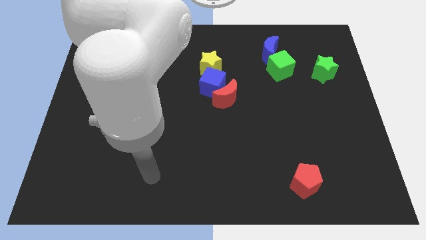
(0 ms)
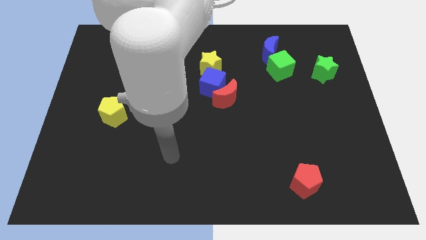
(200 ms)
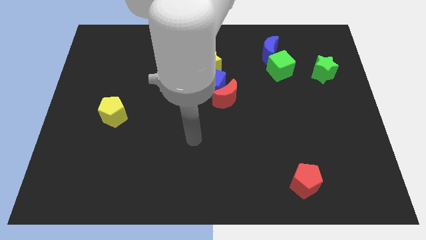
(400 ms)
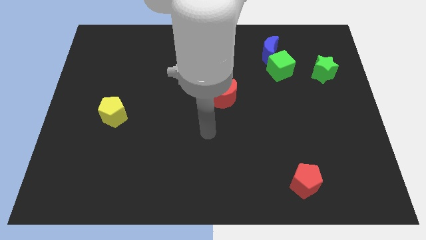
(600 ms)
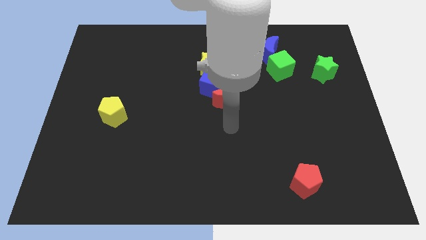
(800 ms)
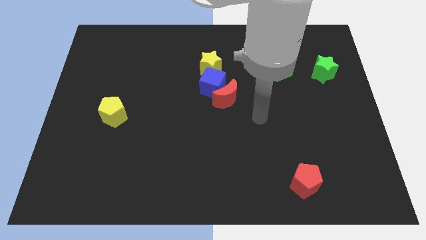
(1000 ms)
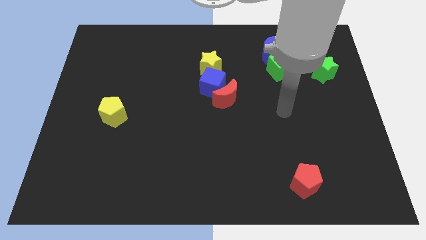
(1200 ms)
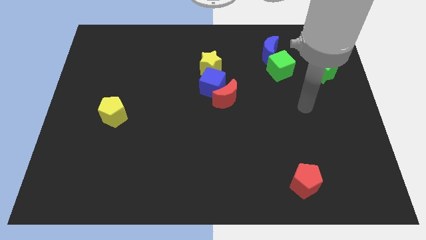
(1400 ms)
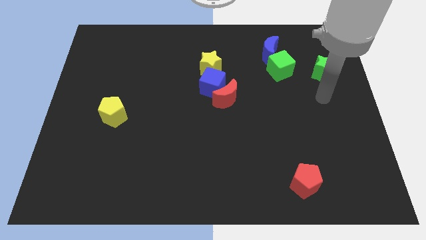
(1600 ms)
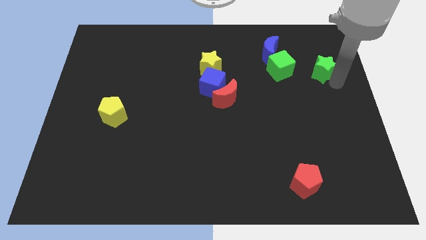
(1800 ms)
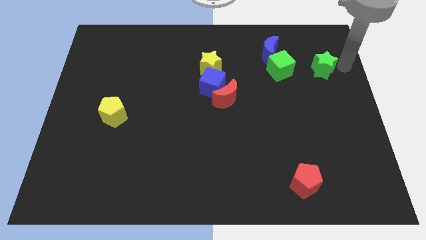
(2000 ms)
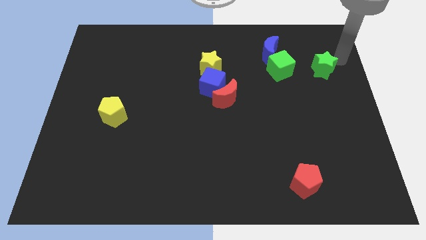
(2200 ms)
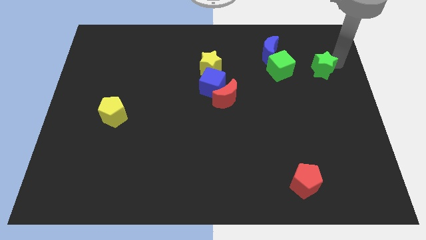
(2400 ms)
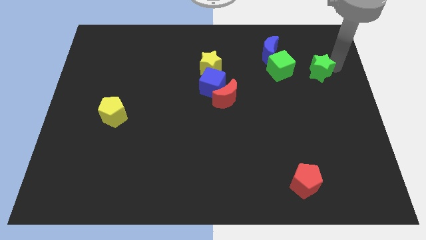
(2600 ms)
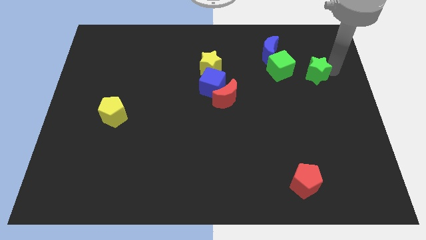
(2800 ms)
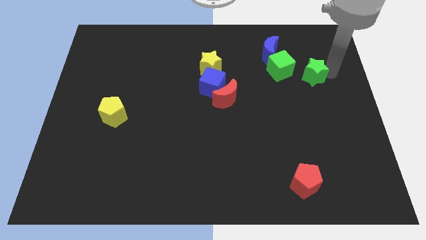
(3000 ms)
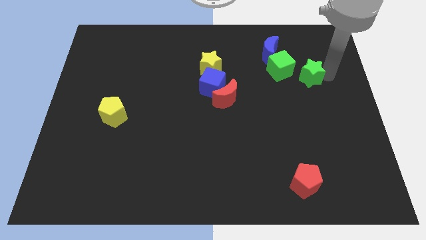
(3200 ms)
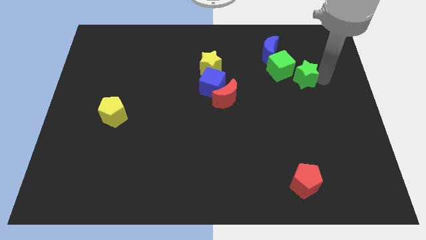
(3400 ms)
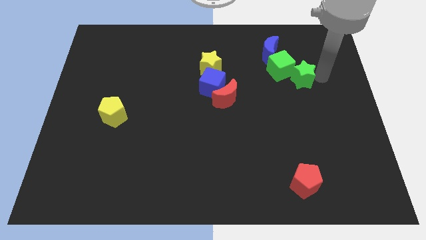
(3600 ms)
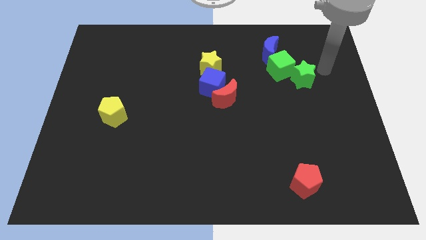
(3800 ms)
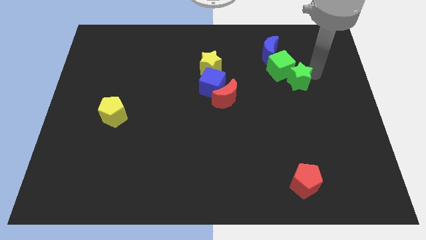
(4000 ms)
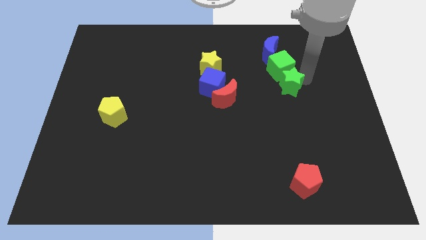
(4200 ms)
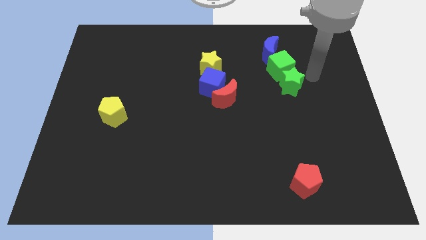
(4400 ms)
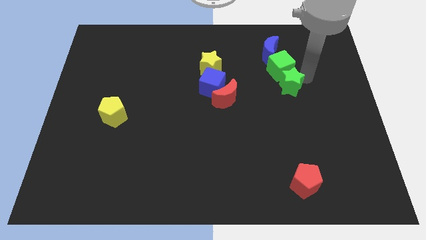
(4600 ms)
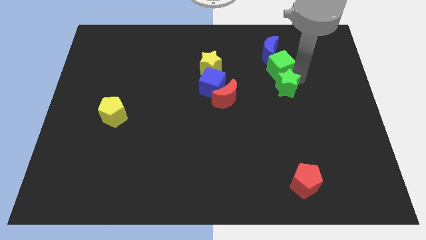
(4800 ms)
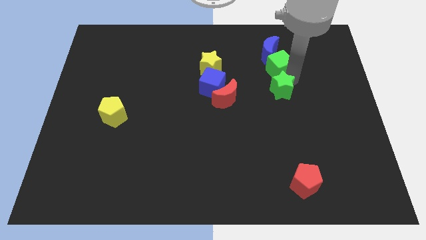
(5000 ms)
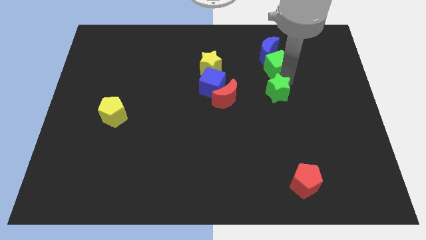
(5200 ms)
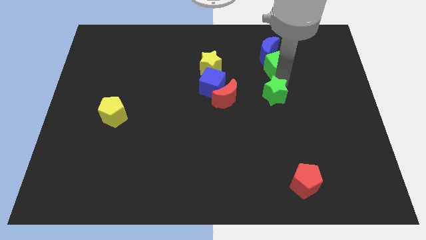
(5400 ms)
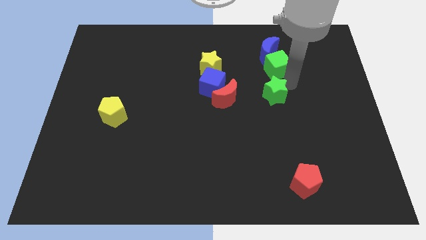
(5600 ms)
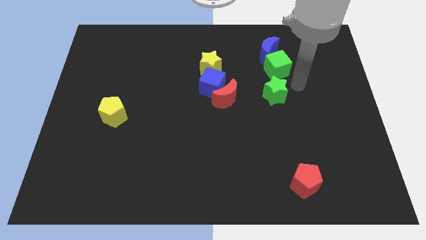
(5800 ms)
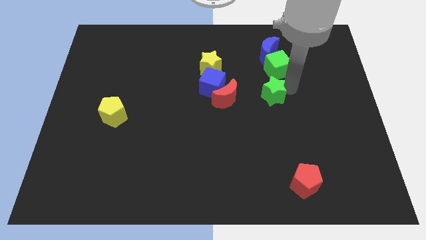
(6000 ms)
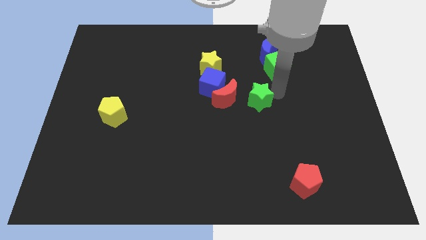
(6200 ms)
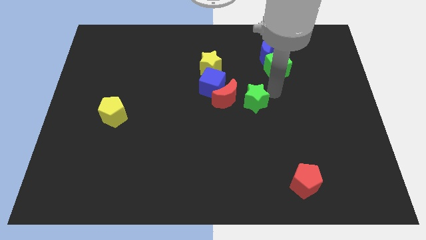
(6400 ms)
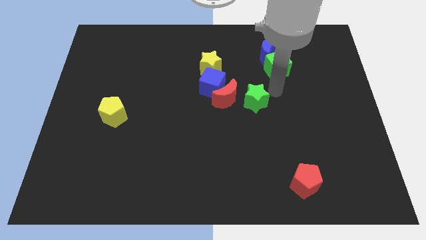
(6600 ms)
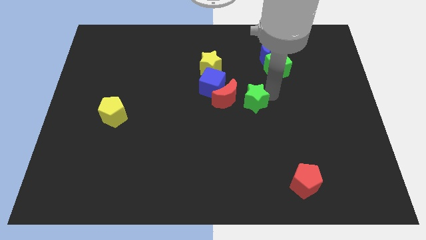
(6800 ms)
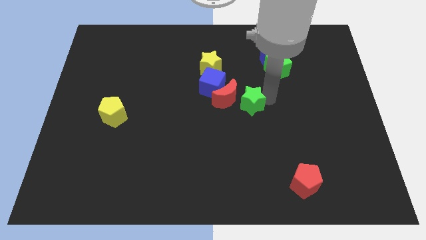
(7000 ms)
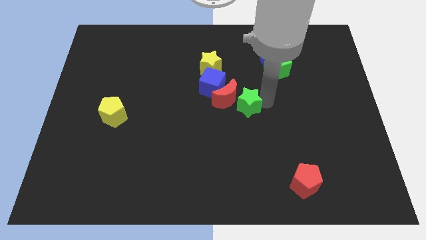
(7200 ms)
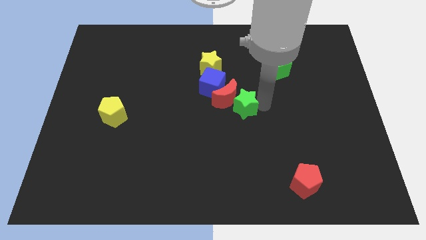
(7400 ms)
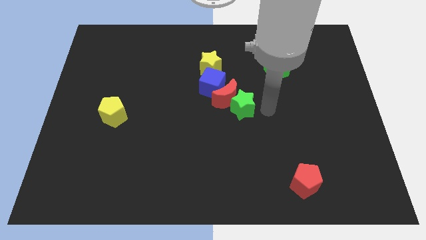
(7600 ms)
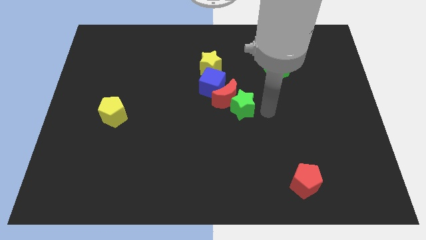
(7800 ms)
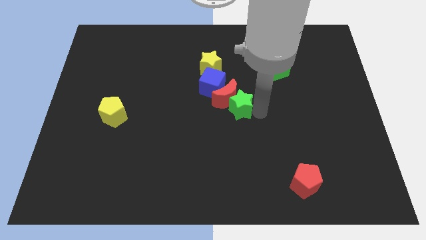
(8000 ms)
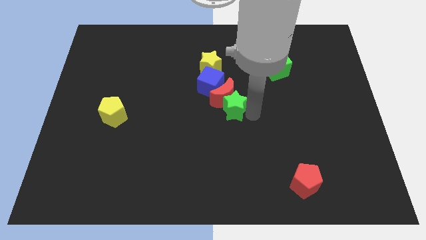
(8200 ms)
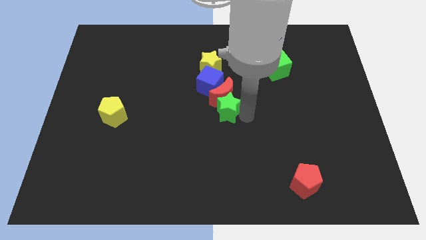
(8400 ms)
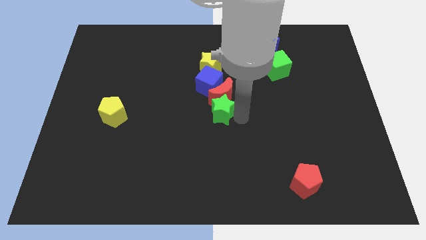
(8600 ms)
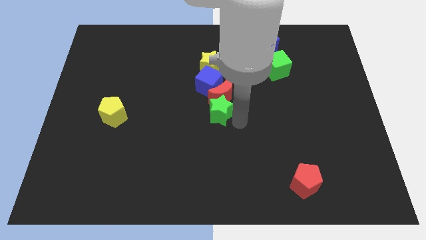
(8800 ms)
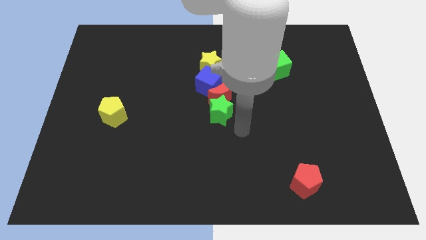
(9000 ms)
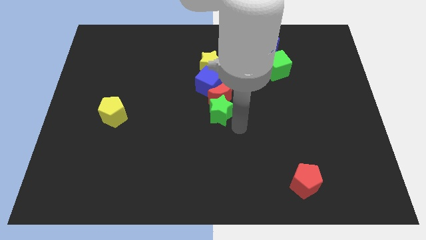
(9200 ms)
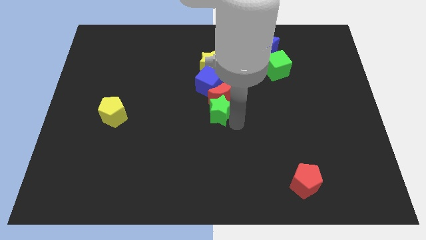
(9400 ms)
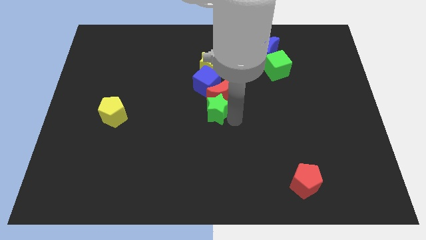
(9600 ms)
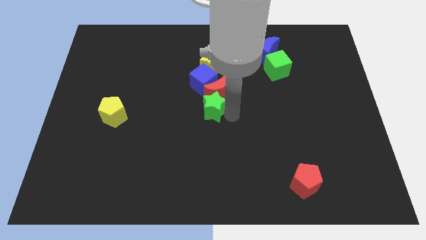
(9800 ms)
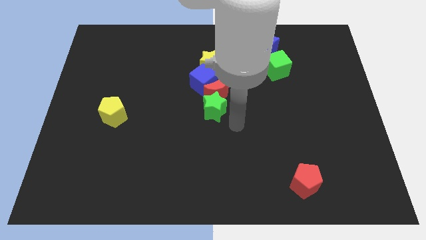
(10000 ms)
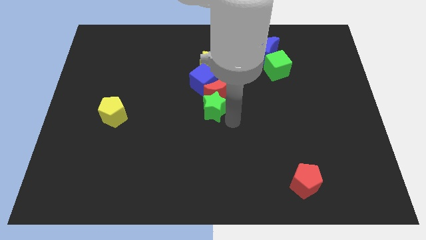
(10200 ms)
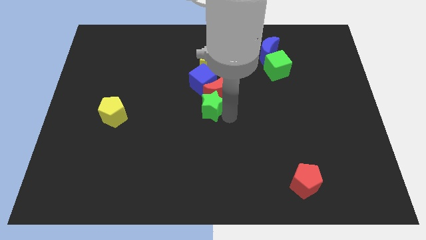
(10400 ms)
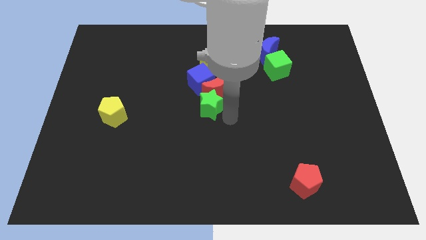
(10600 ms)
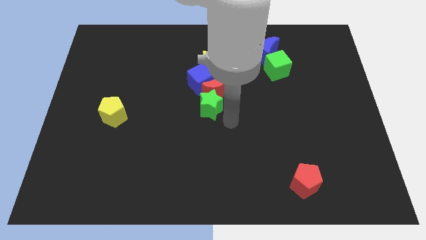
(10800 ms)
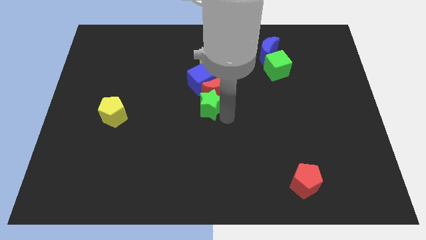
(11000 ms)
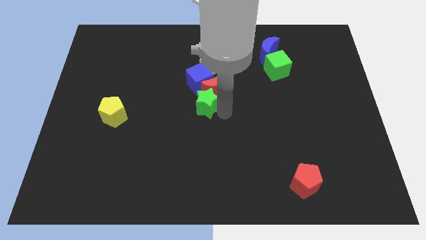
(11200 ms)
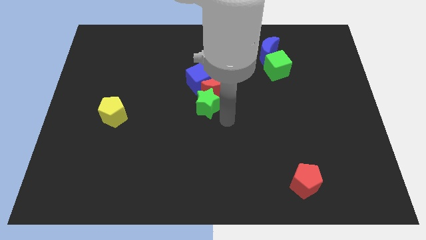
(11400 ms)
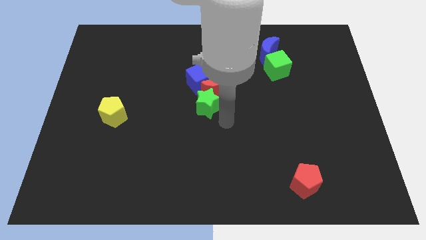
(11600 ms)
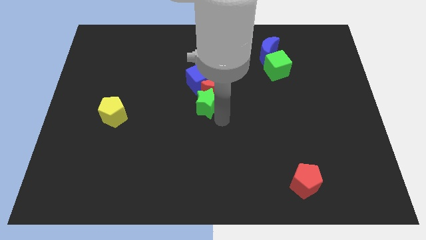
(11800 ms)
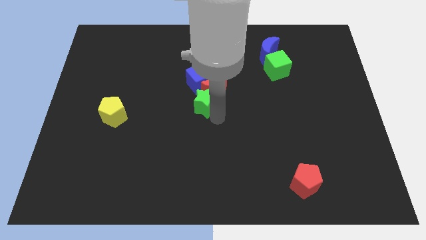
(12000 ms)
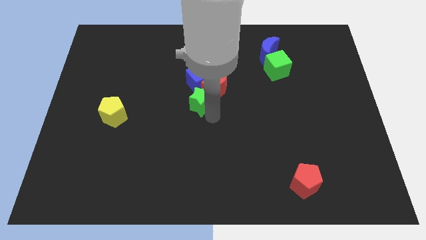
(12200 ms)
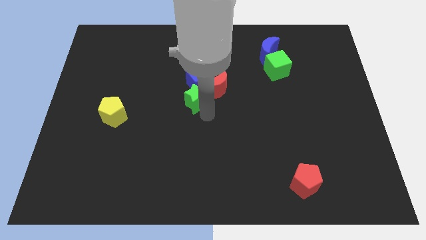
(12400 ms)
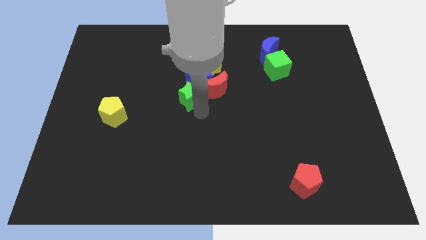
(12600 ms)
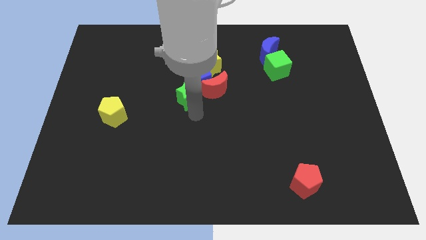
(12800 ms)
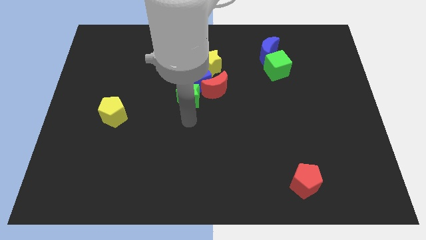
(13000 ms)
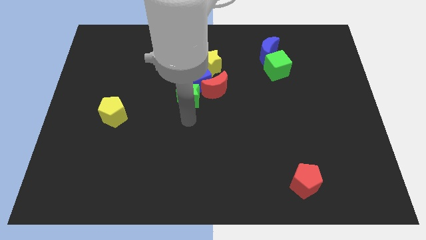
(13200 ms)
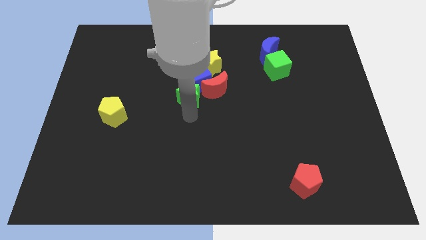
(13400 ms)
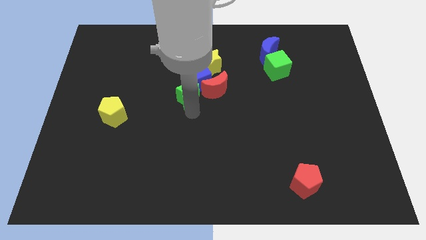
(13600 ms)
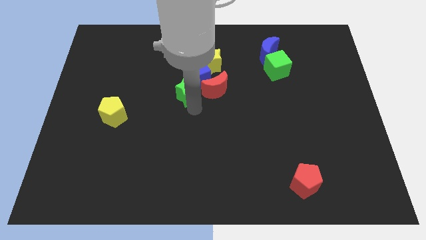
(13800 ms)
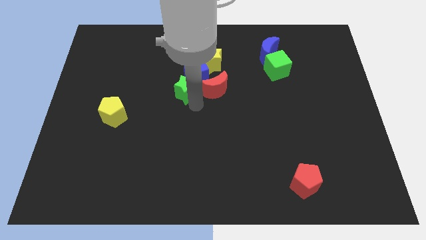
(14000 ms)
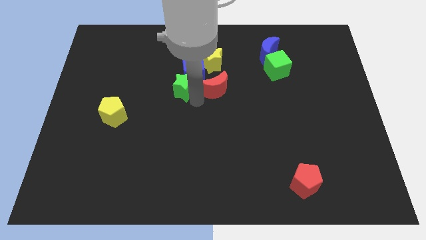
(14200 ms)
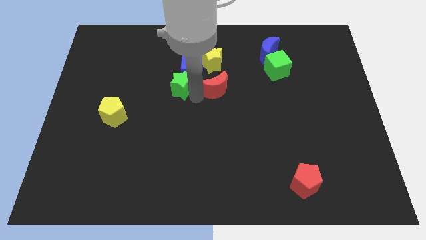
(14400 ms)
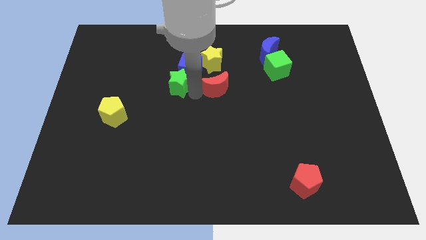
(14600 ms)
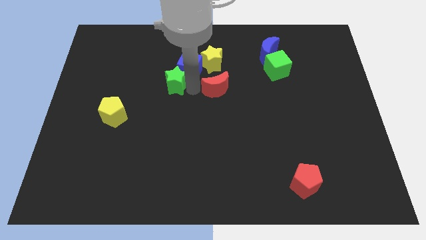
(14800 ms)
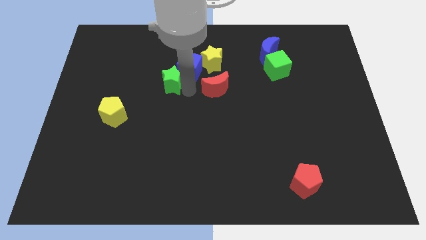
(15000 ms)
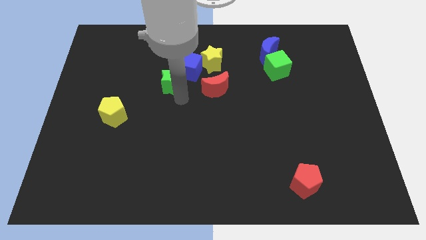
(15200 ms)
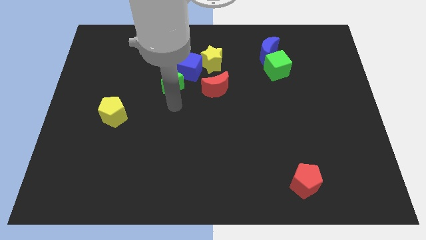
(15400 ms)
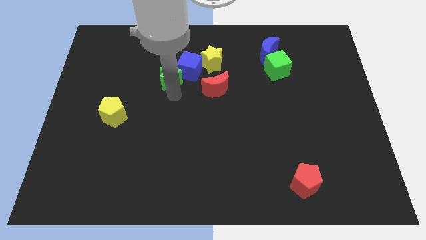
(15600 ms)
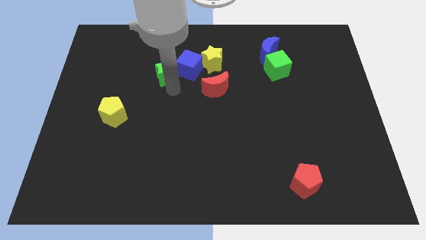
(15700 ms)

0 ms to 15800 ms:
put the green star to the left of the yellow star
